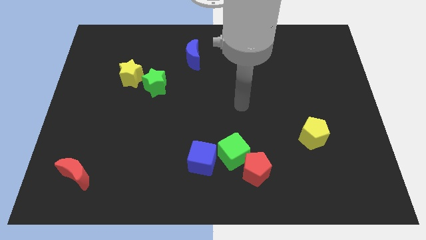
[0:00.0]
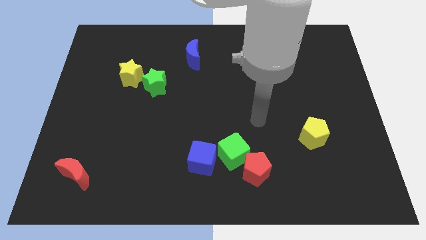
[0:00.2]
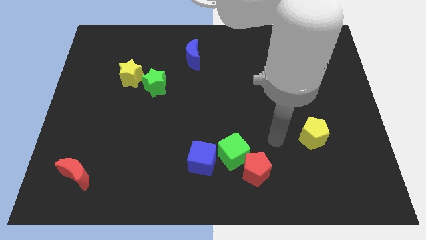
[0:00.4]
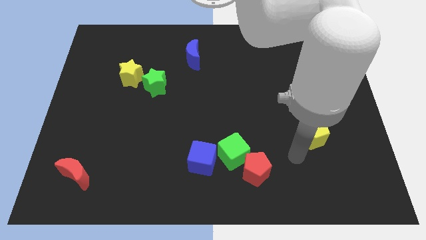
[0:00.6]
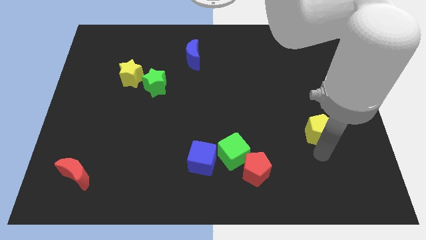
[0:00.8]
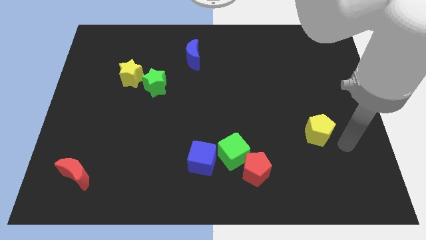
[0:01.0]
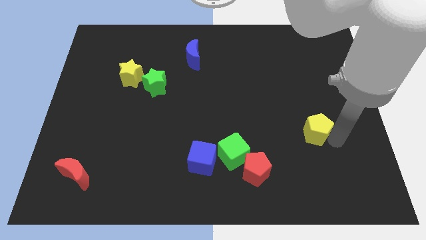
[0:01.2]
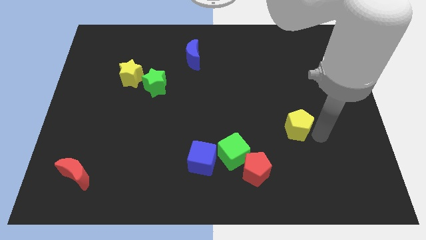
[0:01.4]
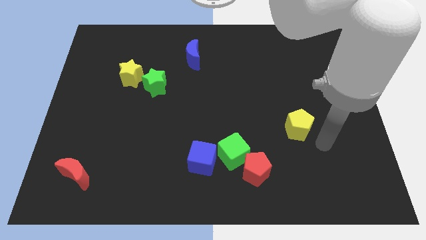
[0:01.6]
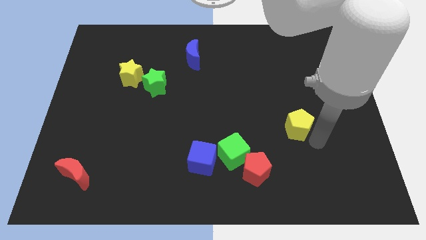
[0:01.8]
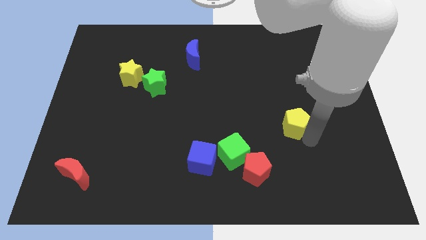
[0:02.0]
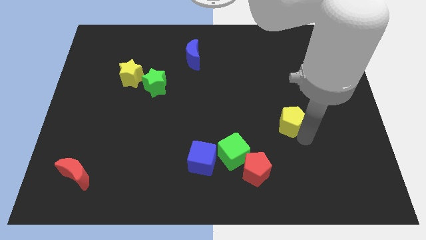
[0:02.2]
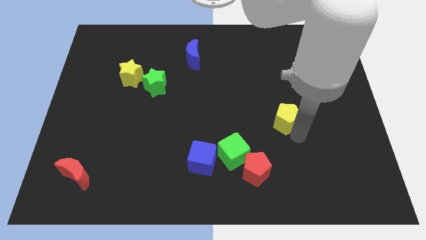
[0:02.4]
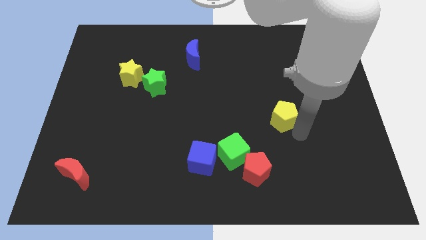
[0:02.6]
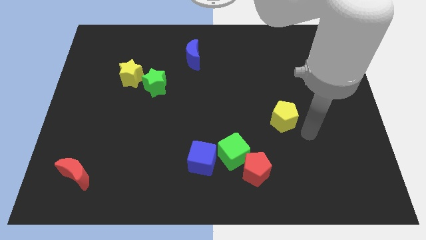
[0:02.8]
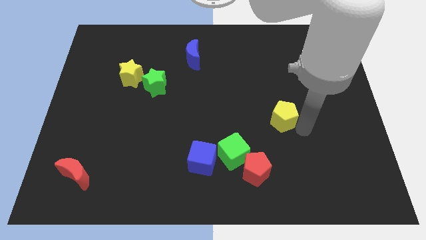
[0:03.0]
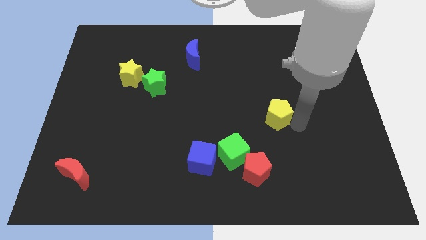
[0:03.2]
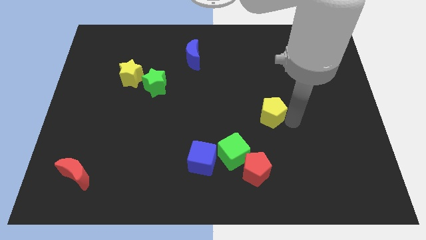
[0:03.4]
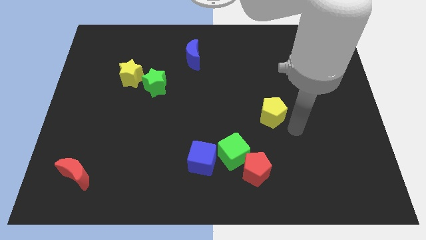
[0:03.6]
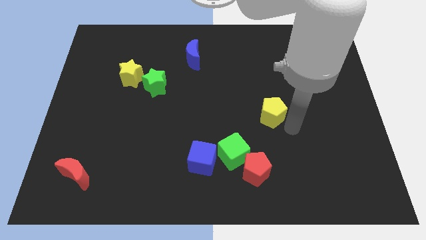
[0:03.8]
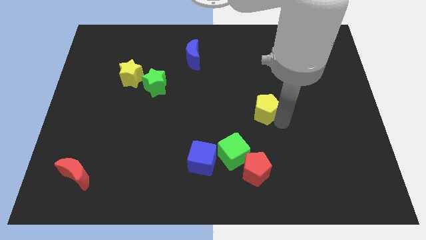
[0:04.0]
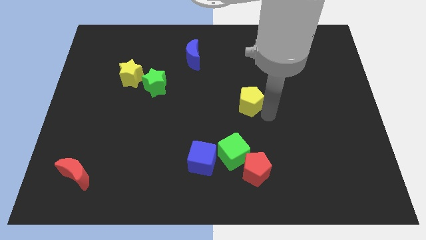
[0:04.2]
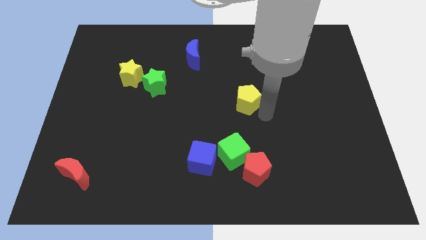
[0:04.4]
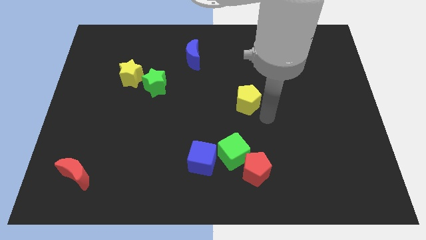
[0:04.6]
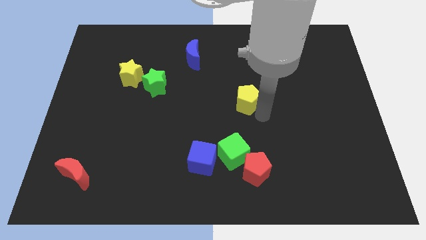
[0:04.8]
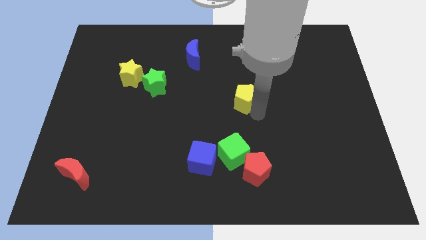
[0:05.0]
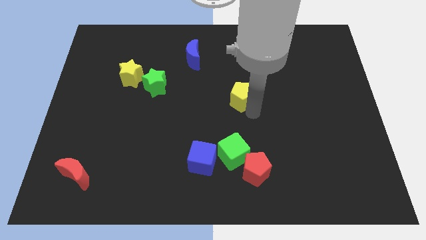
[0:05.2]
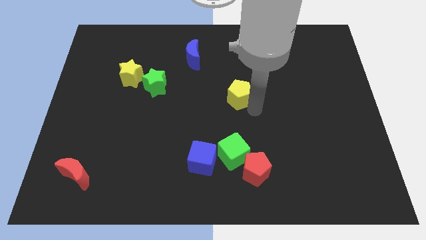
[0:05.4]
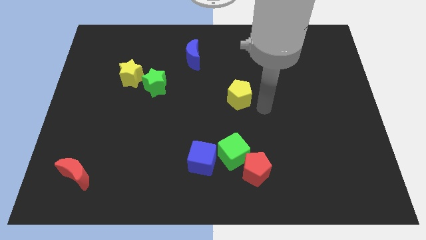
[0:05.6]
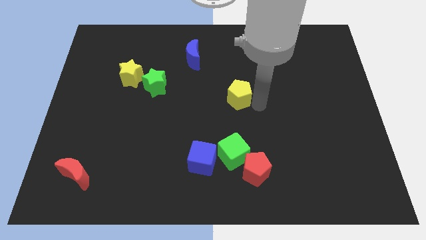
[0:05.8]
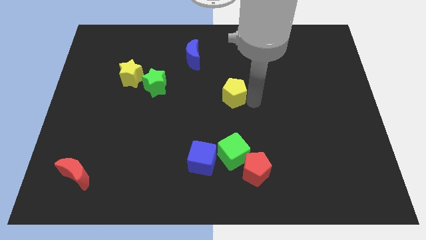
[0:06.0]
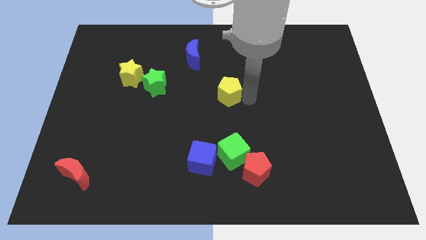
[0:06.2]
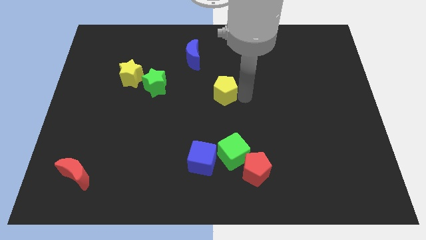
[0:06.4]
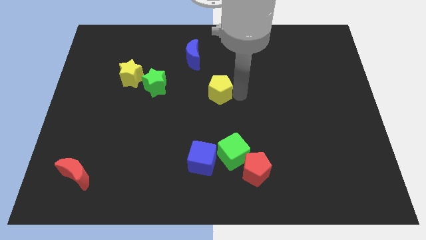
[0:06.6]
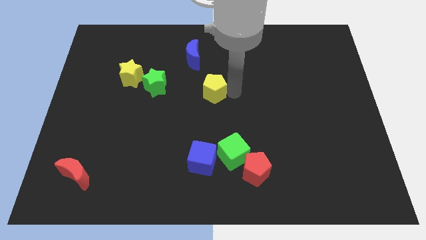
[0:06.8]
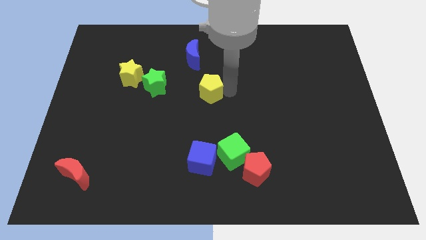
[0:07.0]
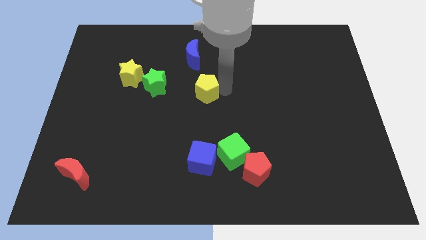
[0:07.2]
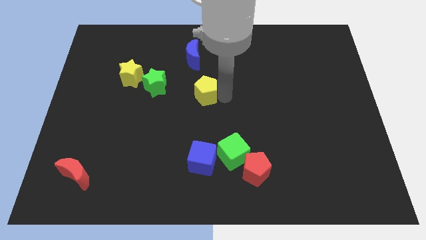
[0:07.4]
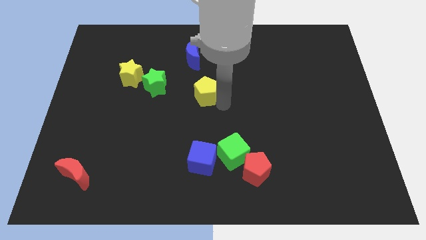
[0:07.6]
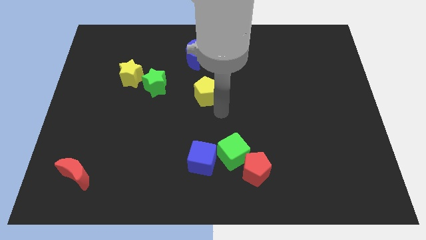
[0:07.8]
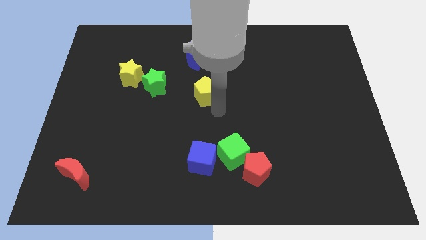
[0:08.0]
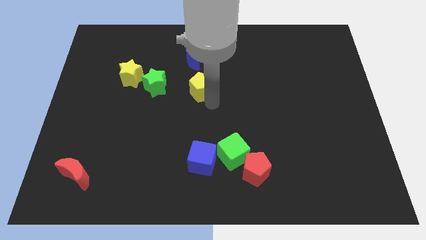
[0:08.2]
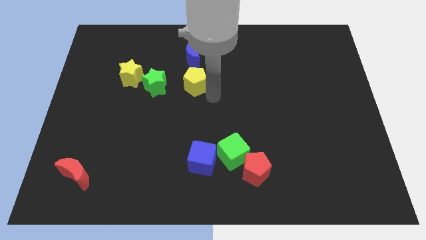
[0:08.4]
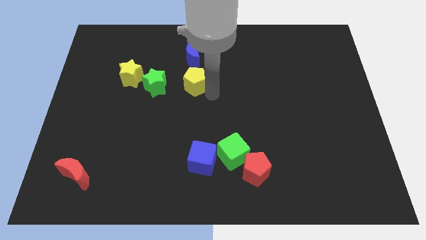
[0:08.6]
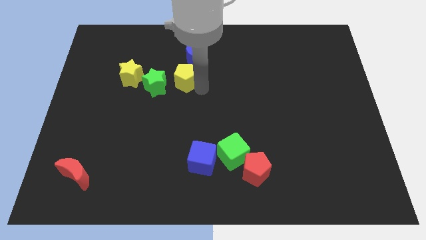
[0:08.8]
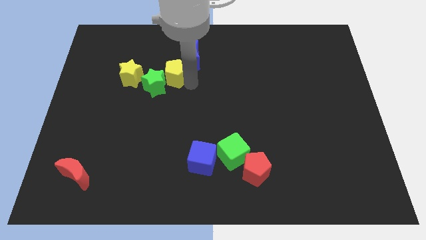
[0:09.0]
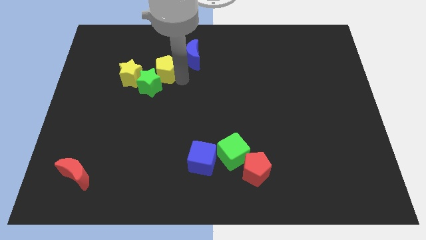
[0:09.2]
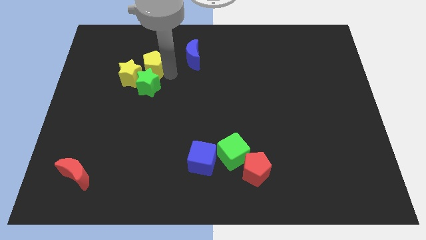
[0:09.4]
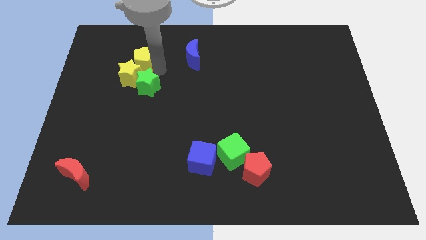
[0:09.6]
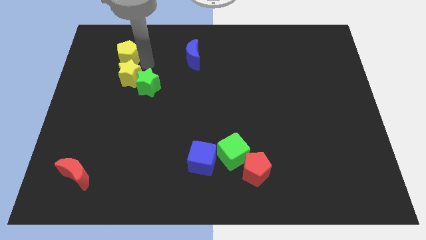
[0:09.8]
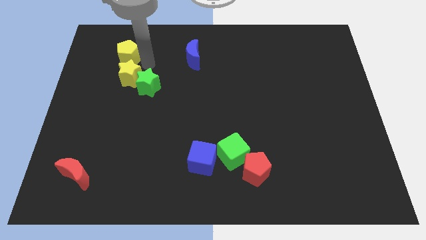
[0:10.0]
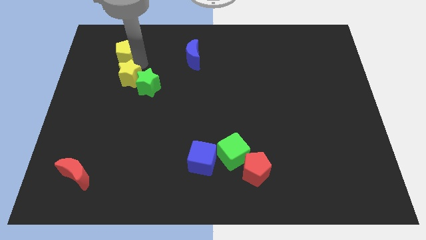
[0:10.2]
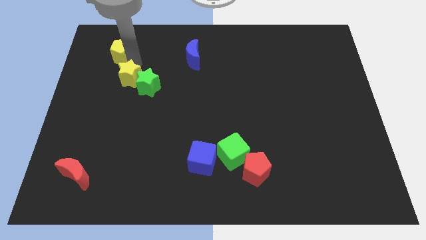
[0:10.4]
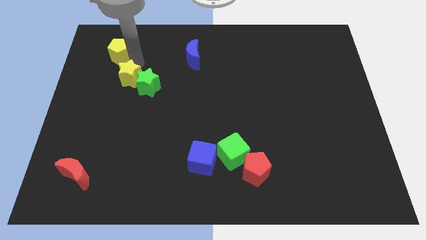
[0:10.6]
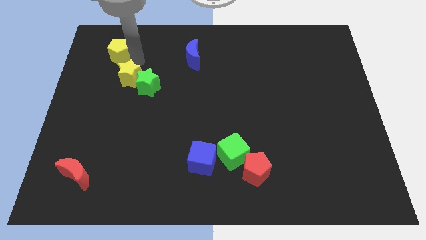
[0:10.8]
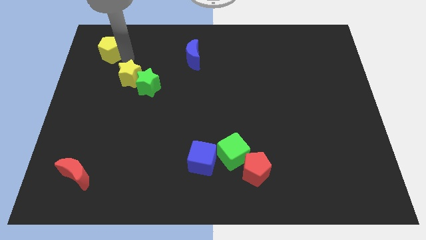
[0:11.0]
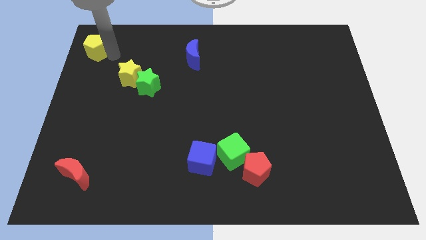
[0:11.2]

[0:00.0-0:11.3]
put the yellow pentagon to the top left of the board

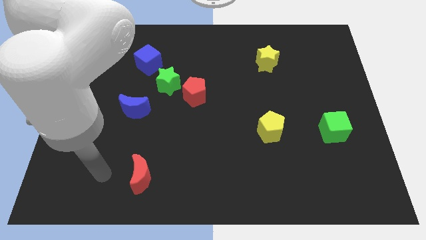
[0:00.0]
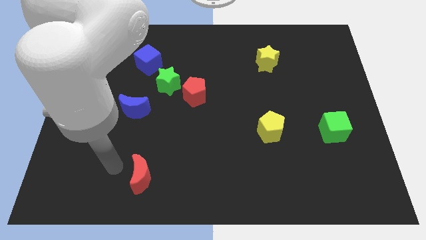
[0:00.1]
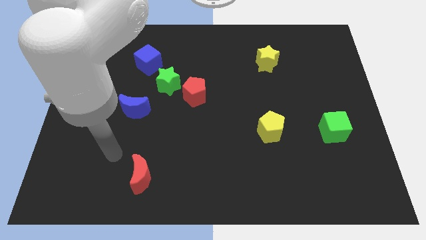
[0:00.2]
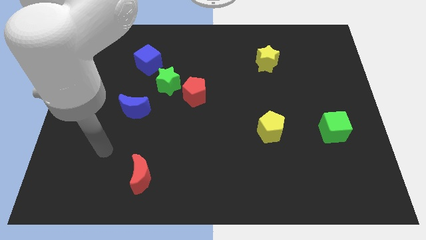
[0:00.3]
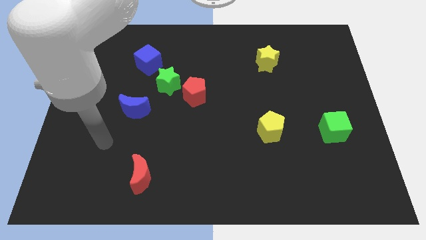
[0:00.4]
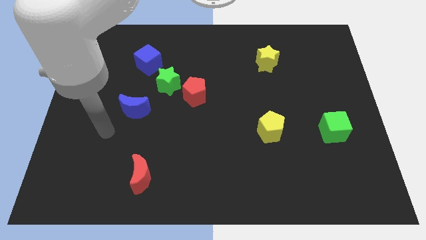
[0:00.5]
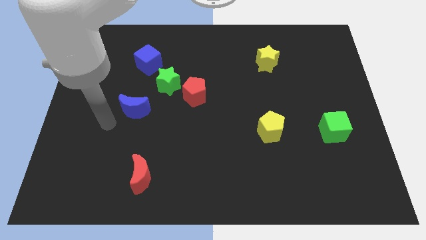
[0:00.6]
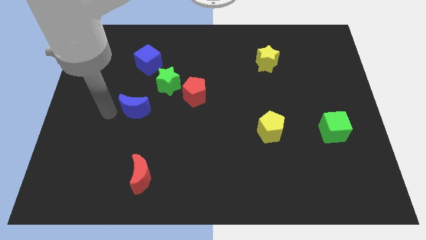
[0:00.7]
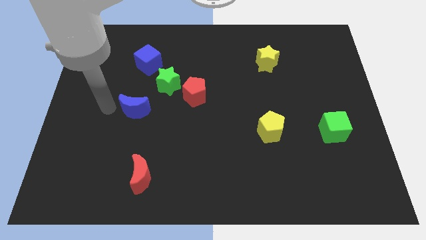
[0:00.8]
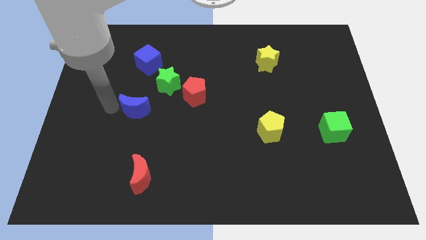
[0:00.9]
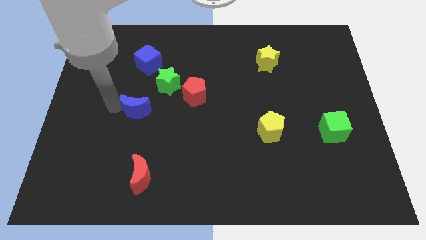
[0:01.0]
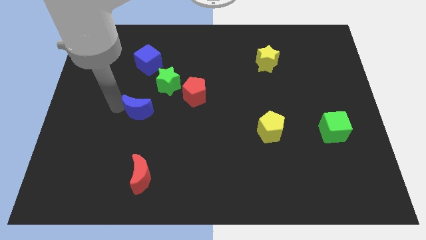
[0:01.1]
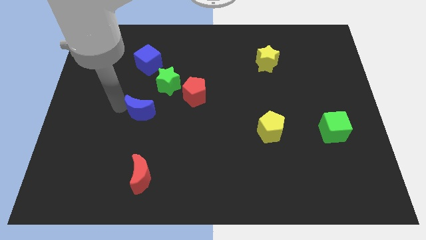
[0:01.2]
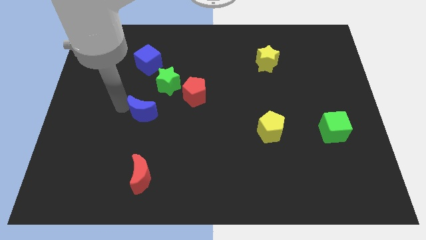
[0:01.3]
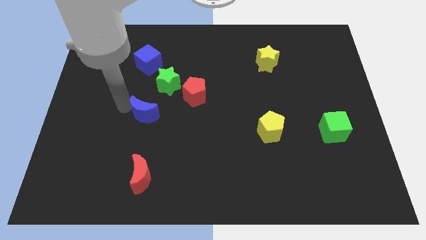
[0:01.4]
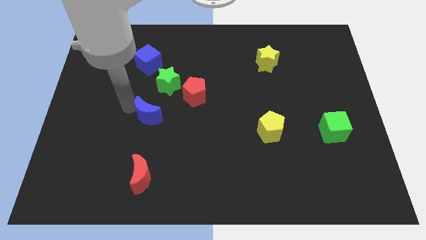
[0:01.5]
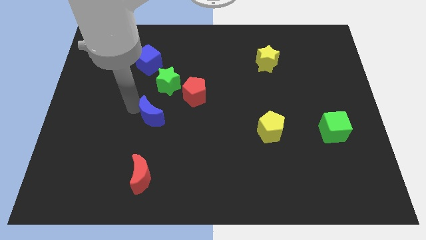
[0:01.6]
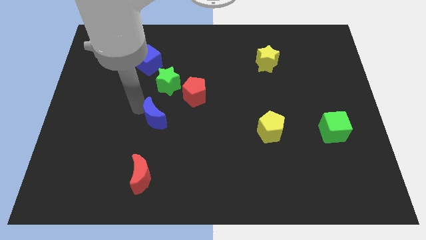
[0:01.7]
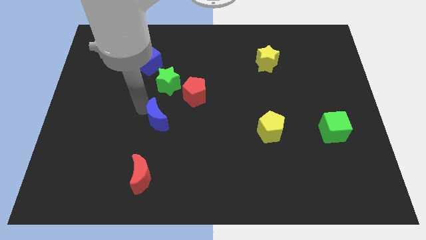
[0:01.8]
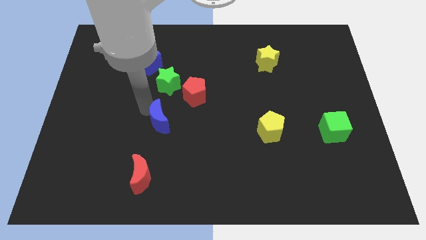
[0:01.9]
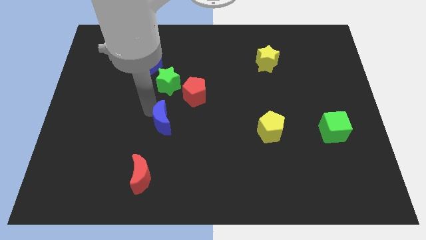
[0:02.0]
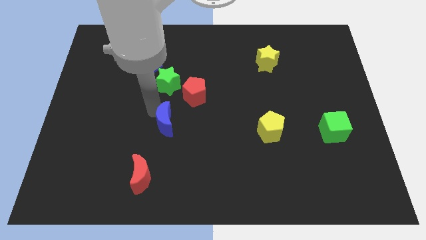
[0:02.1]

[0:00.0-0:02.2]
slide the blue moon to the middle of the board
